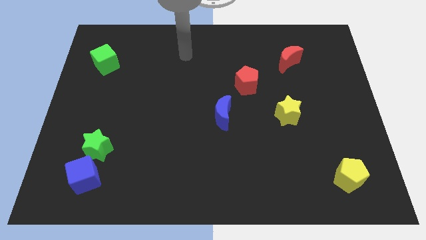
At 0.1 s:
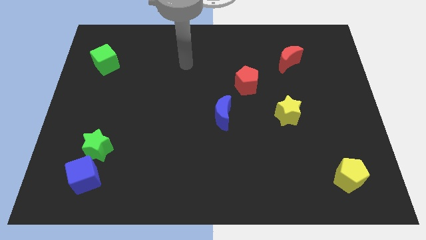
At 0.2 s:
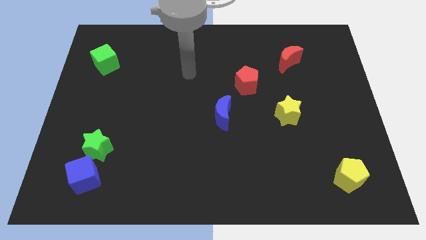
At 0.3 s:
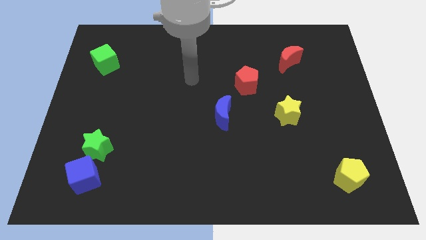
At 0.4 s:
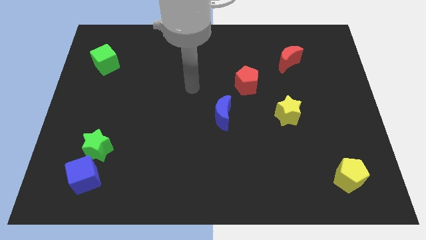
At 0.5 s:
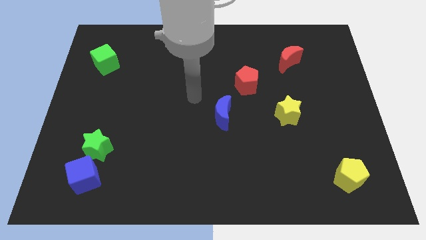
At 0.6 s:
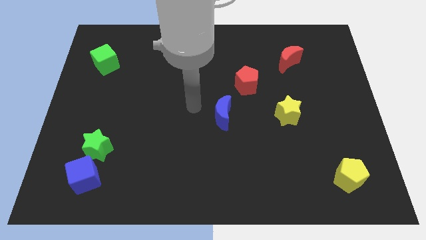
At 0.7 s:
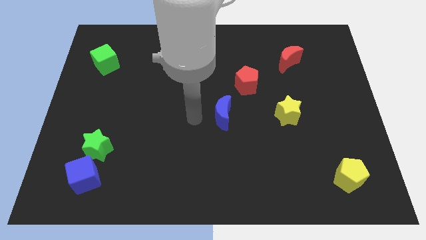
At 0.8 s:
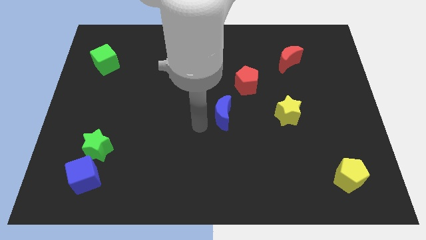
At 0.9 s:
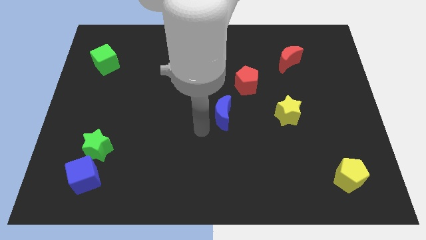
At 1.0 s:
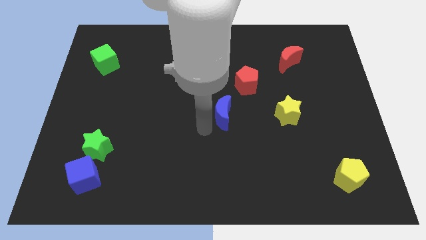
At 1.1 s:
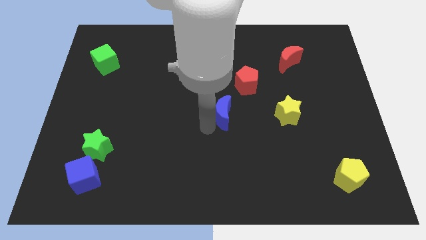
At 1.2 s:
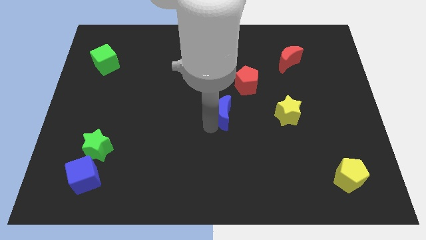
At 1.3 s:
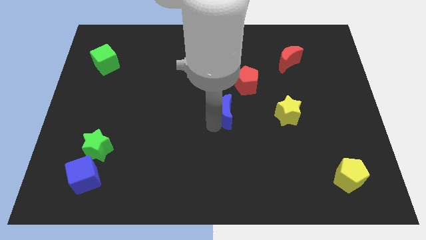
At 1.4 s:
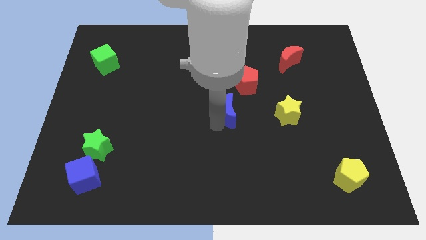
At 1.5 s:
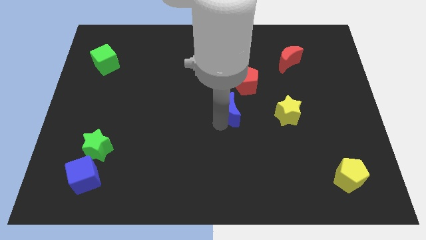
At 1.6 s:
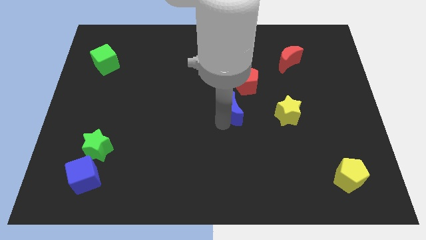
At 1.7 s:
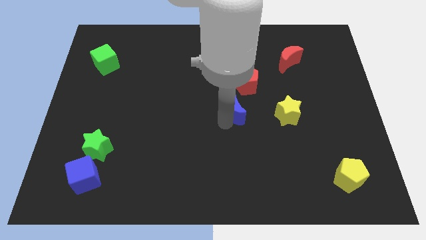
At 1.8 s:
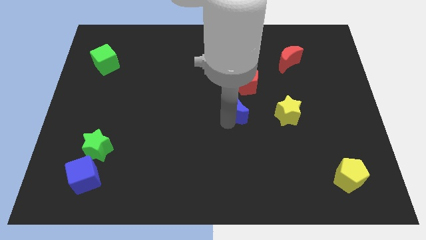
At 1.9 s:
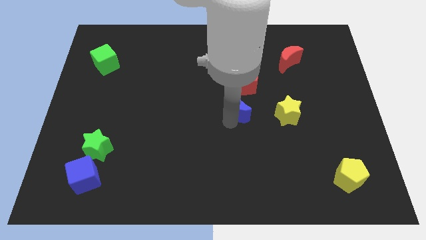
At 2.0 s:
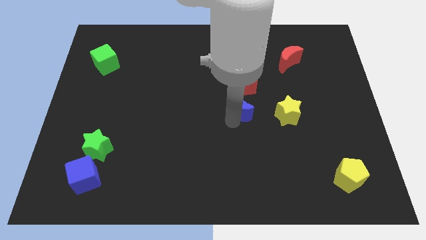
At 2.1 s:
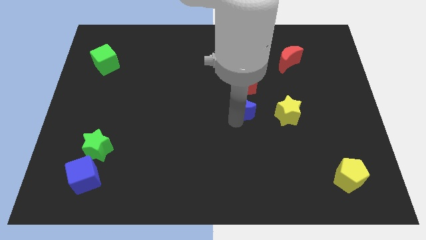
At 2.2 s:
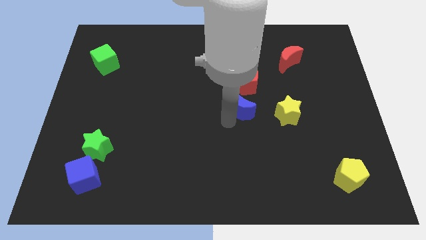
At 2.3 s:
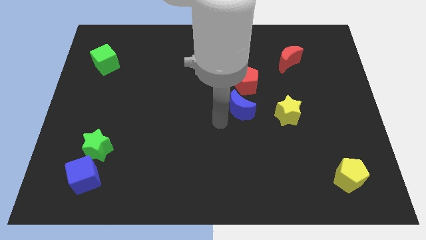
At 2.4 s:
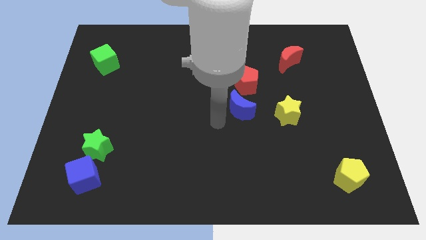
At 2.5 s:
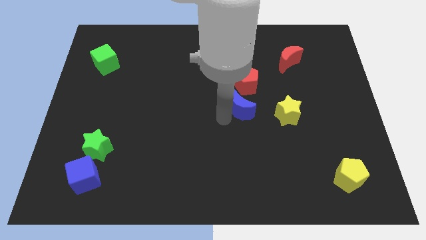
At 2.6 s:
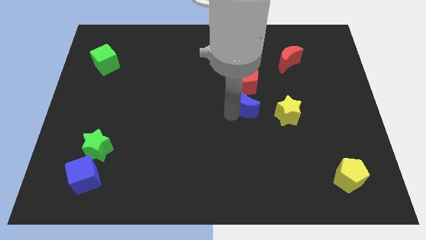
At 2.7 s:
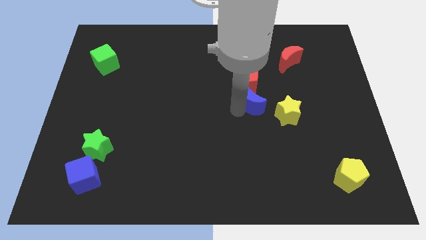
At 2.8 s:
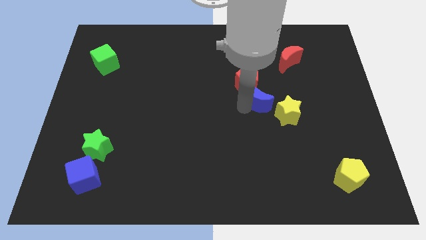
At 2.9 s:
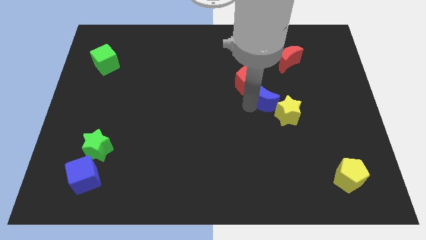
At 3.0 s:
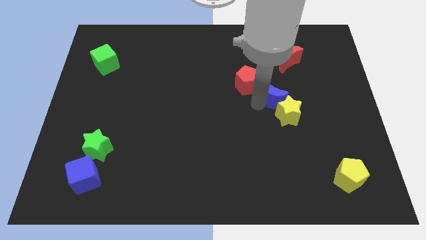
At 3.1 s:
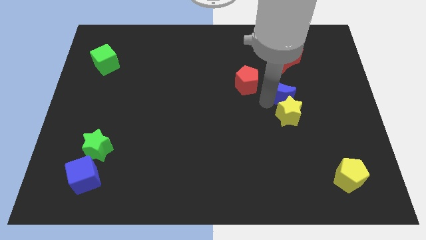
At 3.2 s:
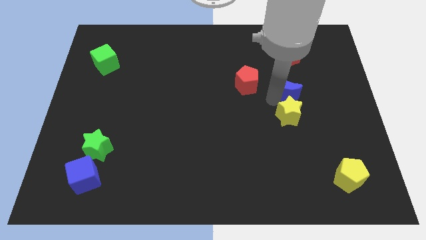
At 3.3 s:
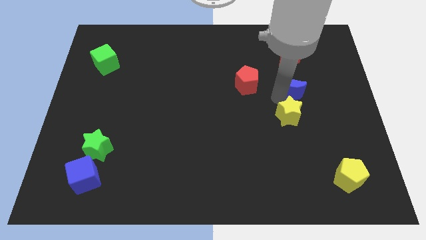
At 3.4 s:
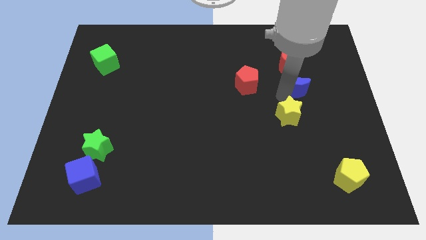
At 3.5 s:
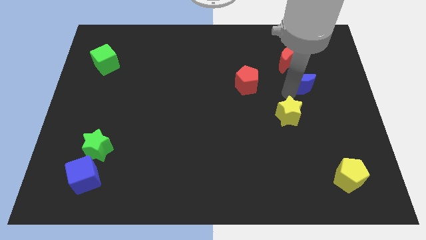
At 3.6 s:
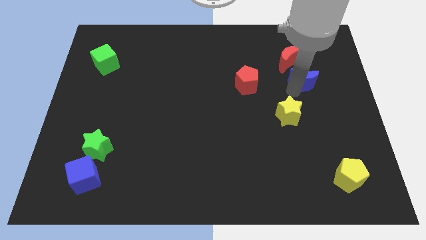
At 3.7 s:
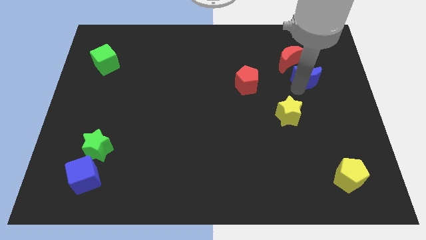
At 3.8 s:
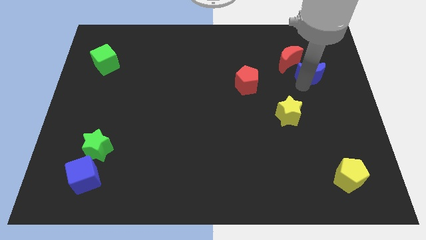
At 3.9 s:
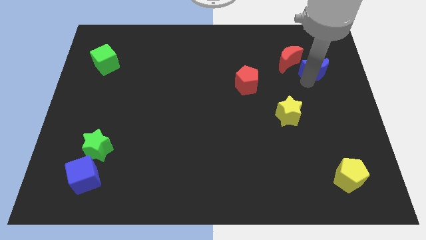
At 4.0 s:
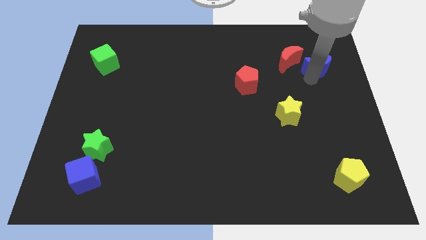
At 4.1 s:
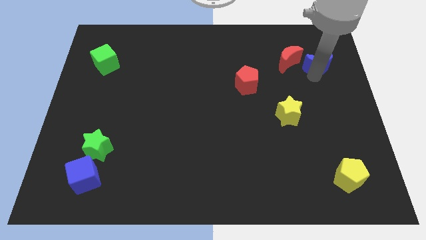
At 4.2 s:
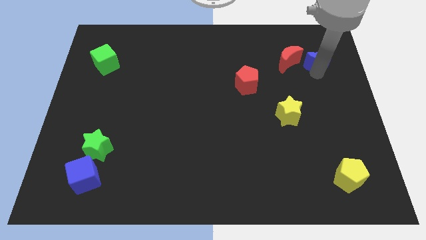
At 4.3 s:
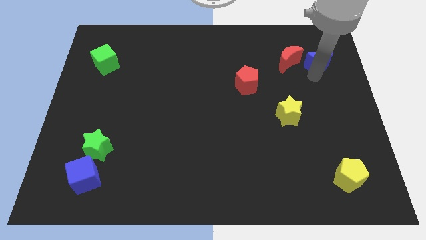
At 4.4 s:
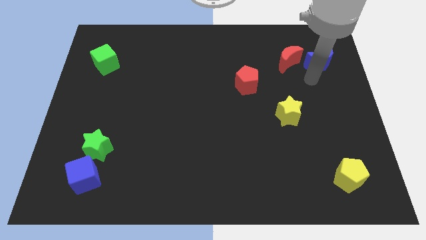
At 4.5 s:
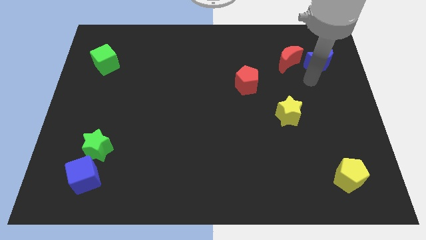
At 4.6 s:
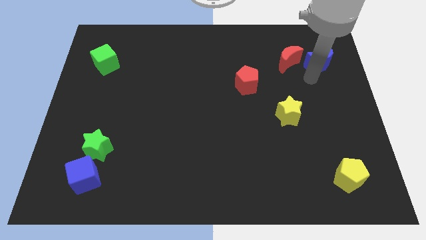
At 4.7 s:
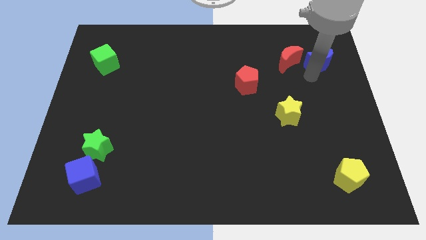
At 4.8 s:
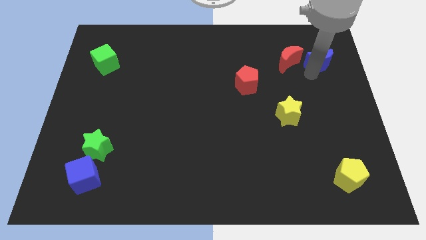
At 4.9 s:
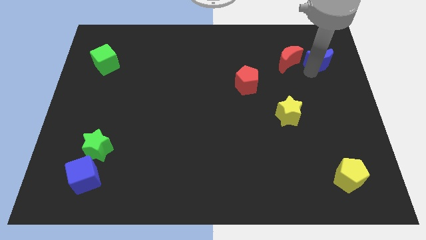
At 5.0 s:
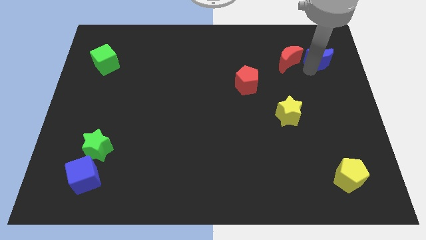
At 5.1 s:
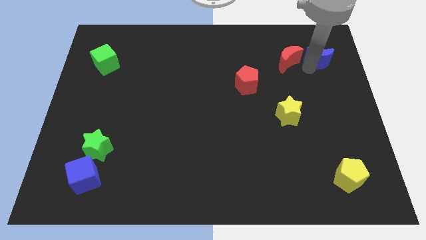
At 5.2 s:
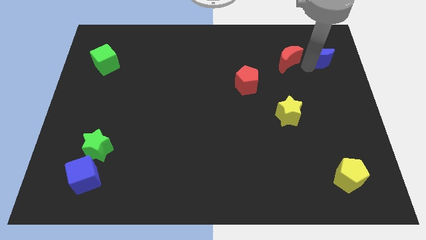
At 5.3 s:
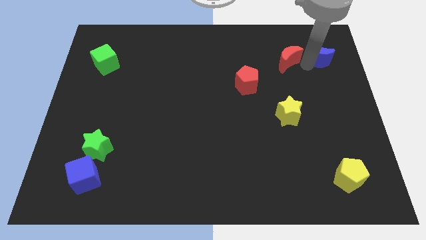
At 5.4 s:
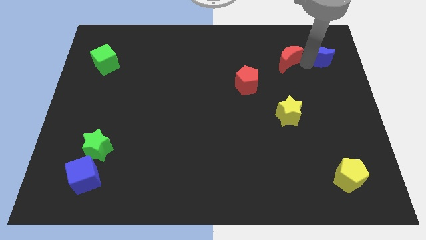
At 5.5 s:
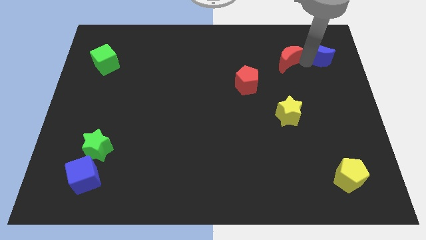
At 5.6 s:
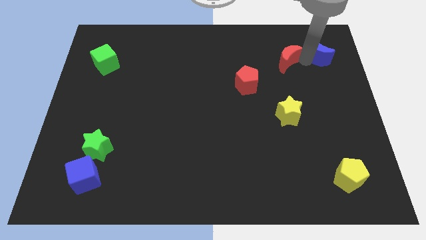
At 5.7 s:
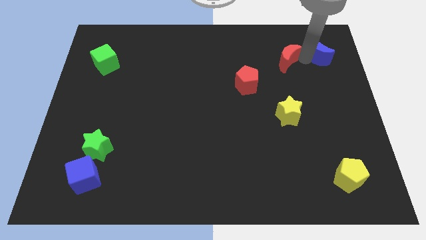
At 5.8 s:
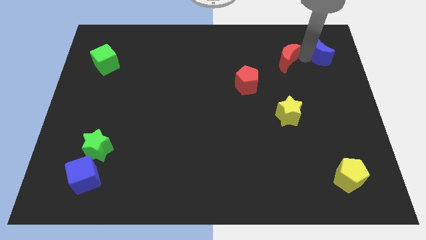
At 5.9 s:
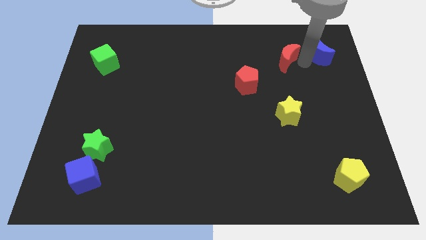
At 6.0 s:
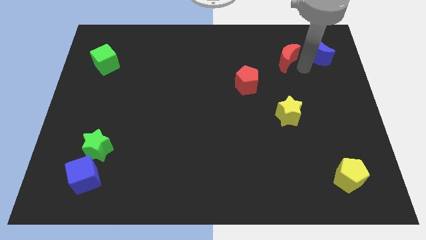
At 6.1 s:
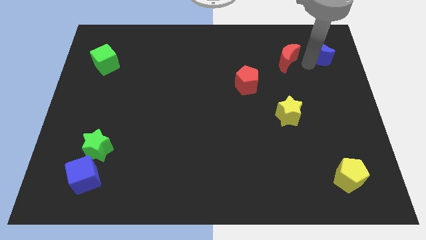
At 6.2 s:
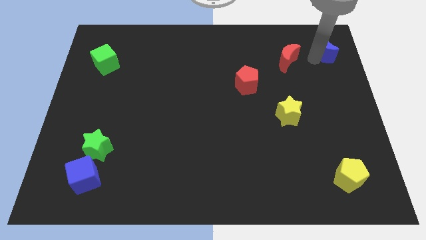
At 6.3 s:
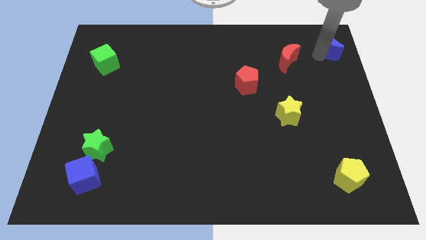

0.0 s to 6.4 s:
put the blue moon to the upper right corner
